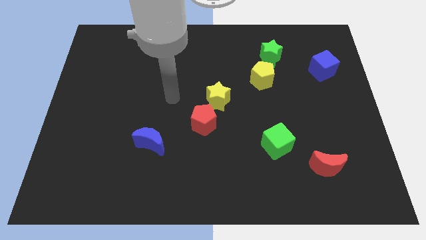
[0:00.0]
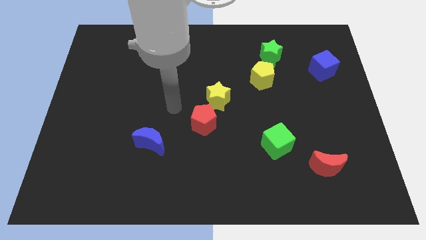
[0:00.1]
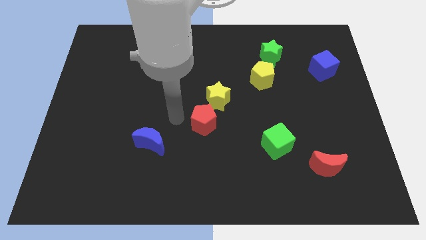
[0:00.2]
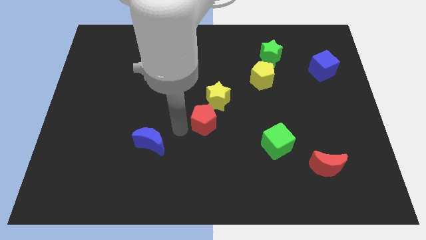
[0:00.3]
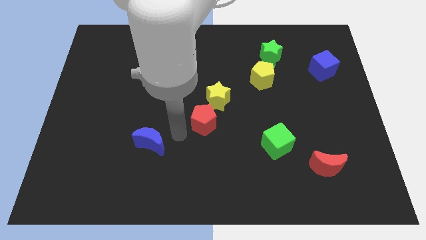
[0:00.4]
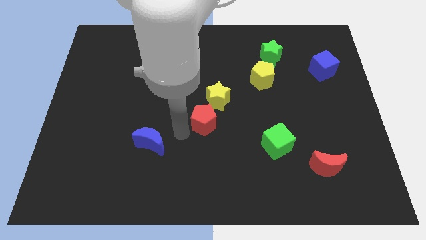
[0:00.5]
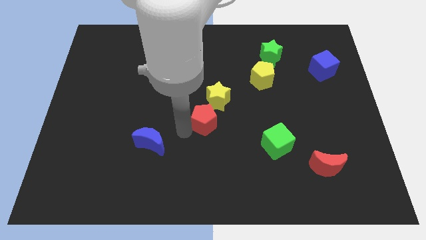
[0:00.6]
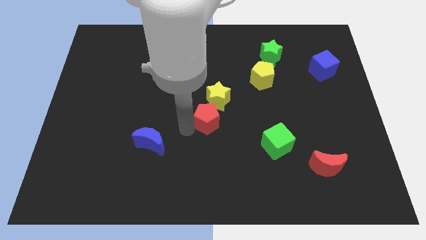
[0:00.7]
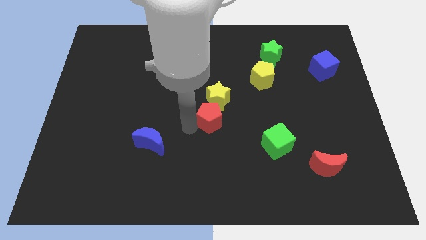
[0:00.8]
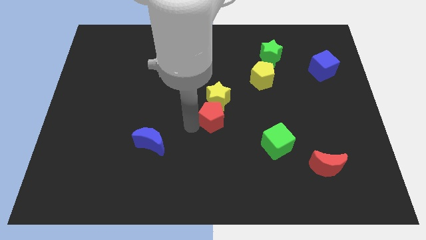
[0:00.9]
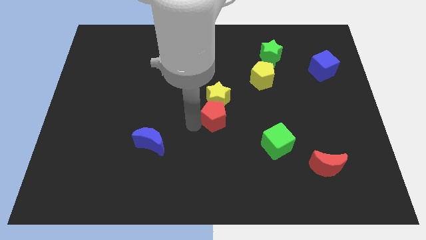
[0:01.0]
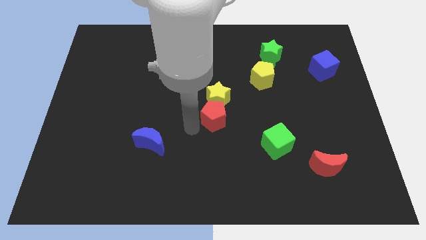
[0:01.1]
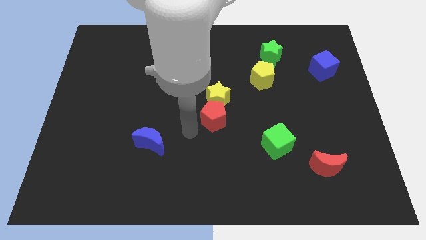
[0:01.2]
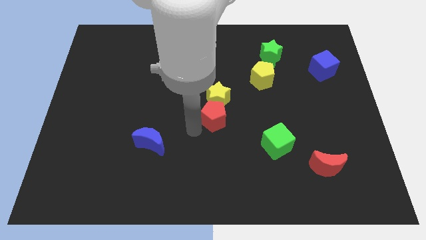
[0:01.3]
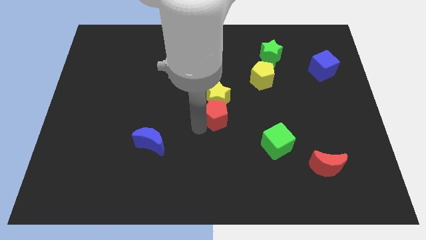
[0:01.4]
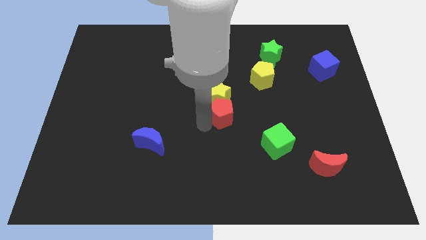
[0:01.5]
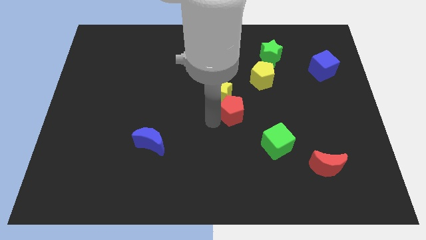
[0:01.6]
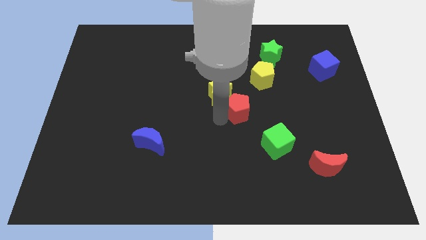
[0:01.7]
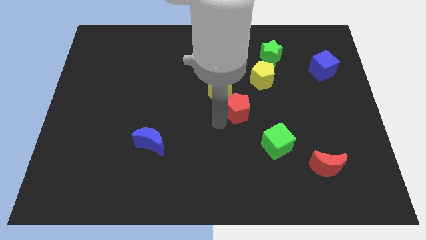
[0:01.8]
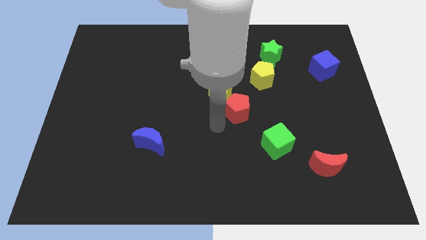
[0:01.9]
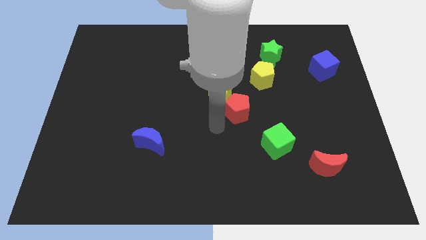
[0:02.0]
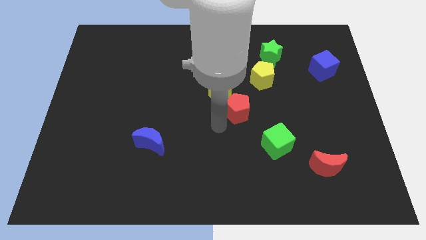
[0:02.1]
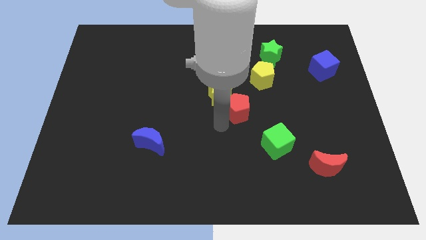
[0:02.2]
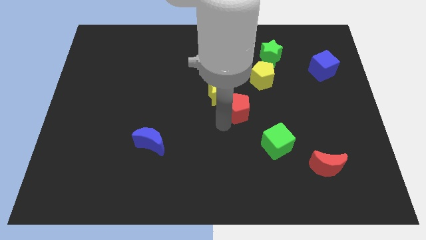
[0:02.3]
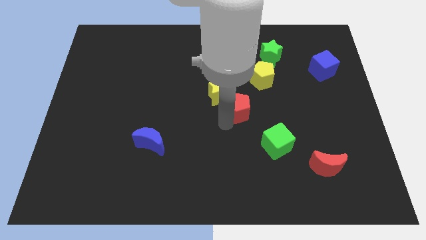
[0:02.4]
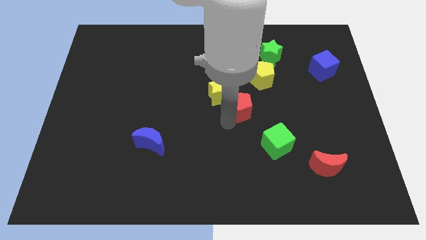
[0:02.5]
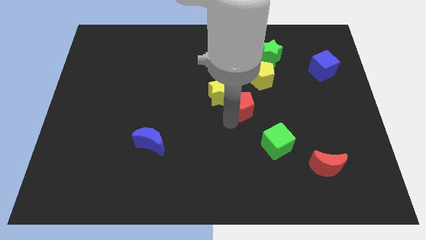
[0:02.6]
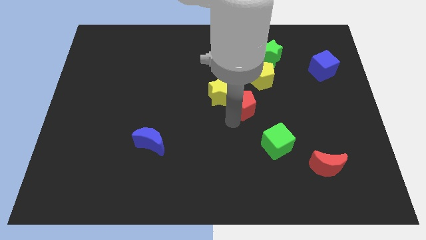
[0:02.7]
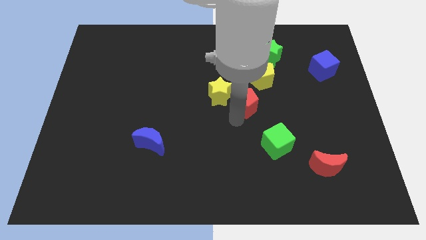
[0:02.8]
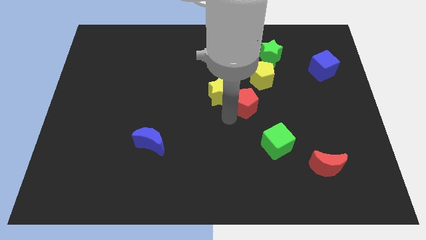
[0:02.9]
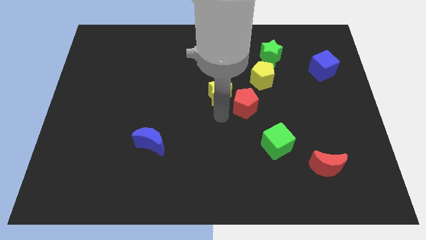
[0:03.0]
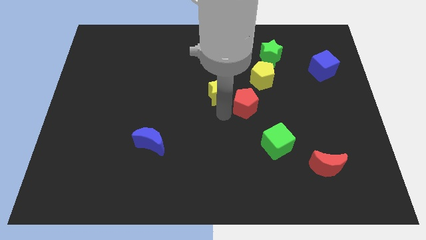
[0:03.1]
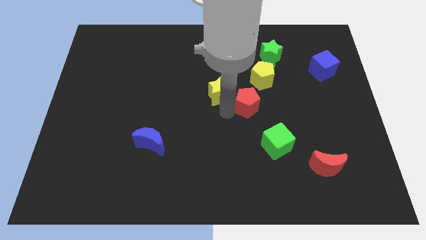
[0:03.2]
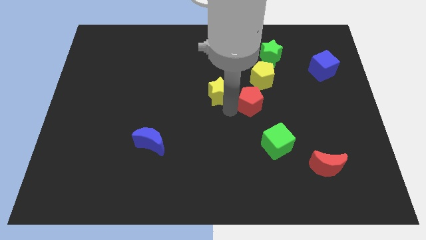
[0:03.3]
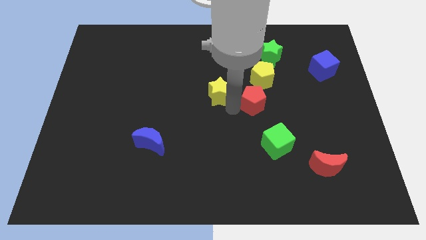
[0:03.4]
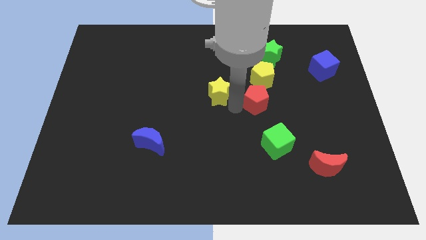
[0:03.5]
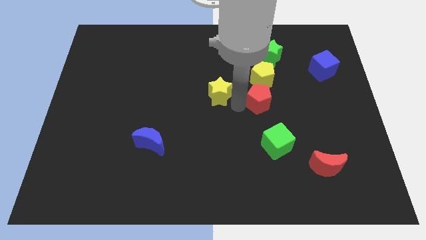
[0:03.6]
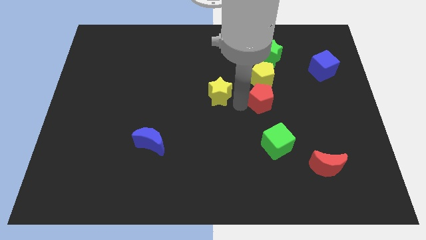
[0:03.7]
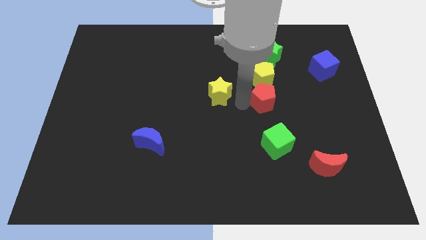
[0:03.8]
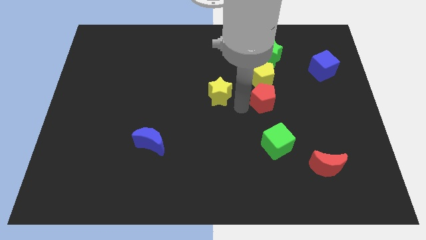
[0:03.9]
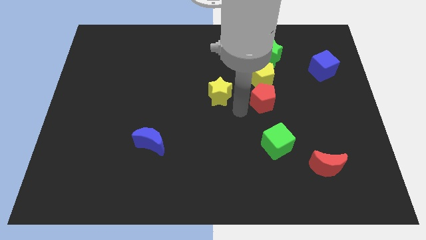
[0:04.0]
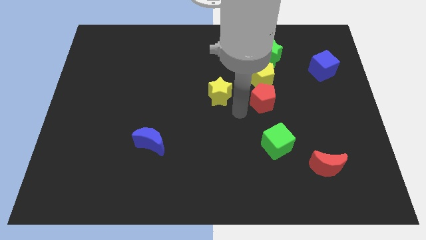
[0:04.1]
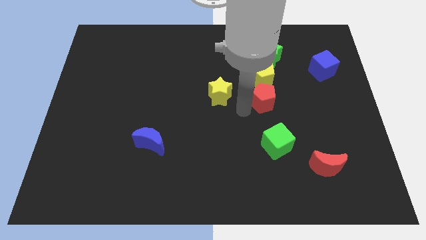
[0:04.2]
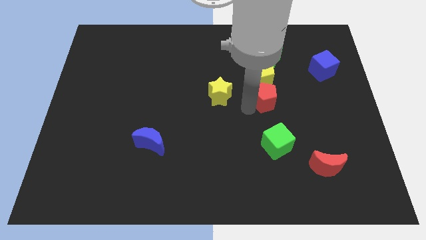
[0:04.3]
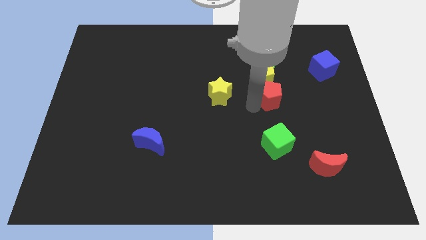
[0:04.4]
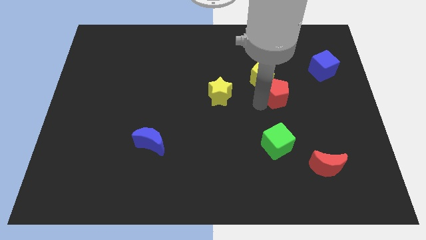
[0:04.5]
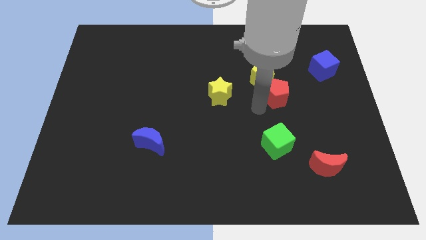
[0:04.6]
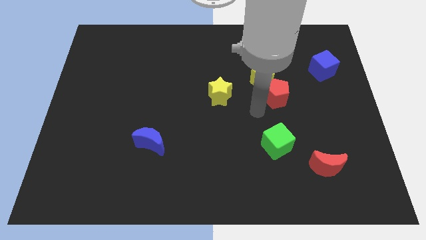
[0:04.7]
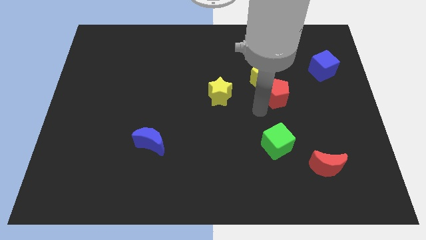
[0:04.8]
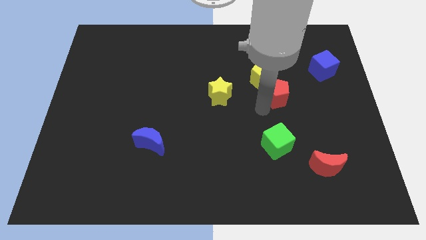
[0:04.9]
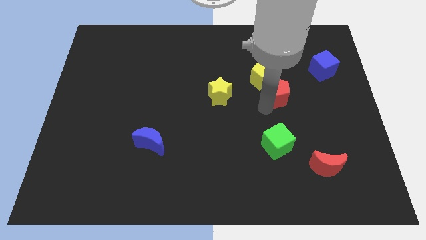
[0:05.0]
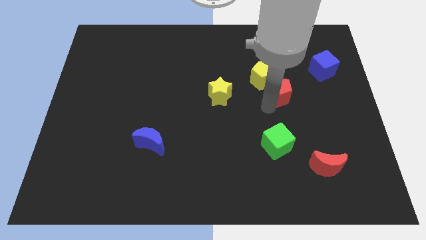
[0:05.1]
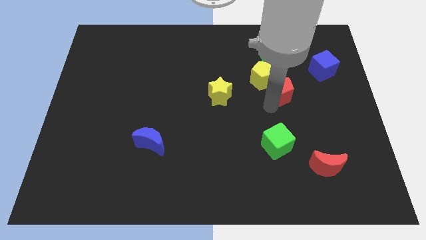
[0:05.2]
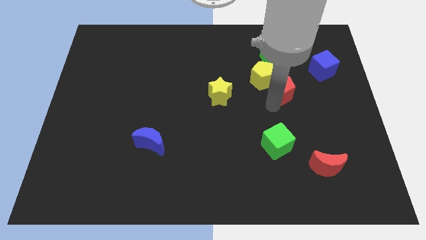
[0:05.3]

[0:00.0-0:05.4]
slide the red pentagon right of the yellow pentagon

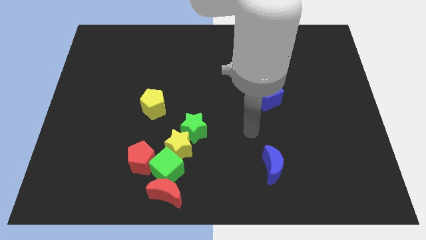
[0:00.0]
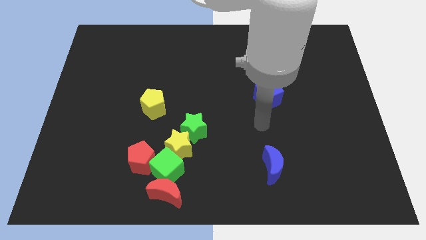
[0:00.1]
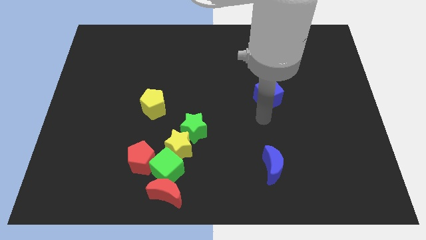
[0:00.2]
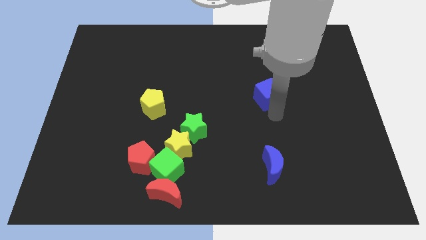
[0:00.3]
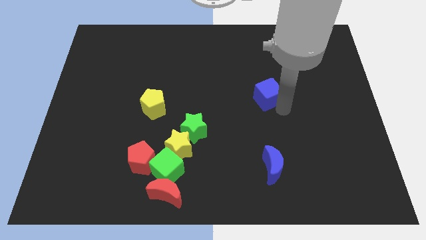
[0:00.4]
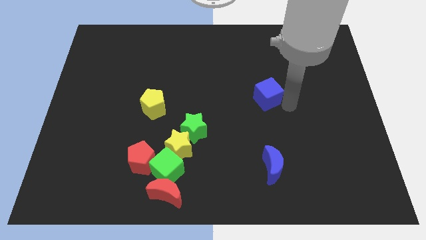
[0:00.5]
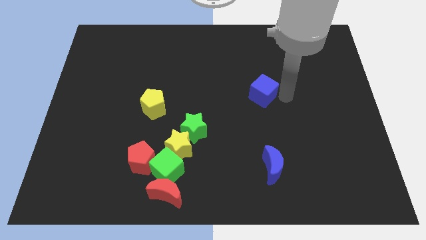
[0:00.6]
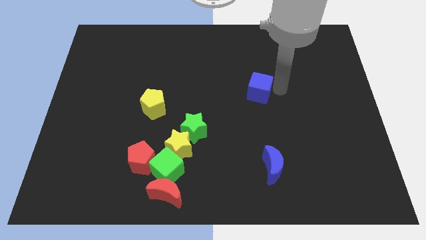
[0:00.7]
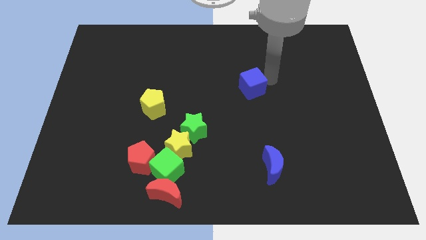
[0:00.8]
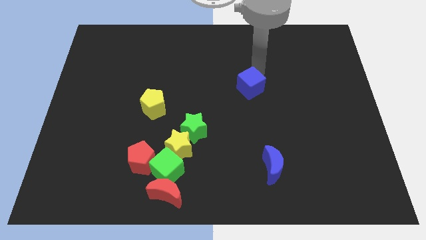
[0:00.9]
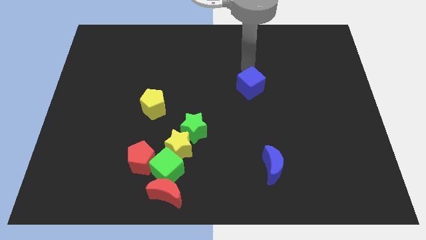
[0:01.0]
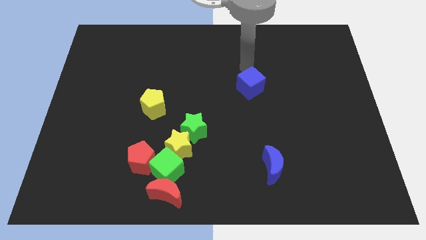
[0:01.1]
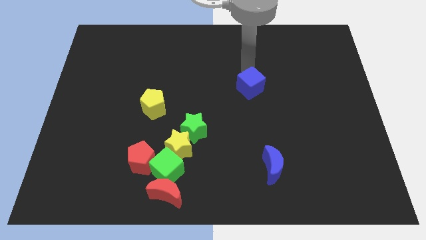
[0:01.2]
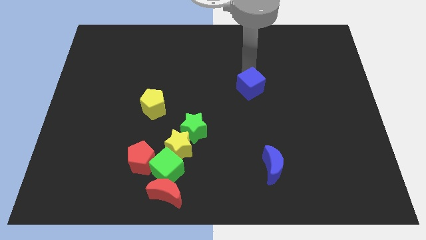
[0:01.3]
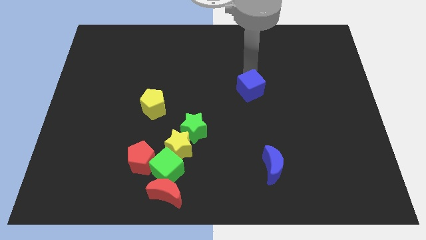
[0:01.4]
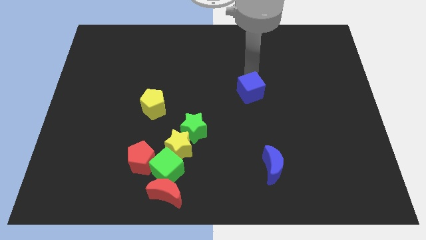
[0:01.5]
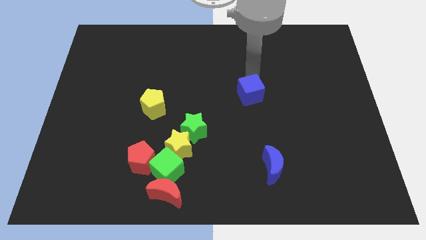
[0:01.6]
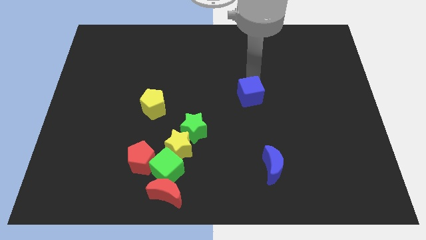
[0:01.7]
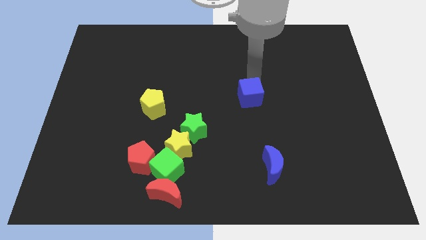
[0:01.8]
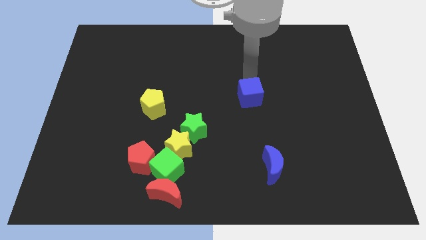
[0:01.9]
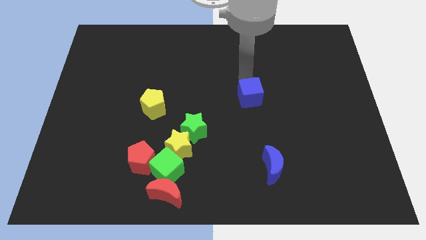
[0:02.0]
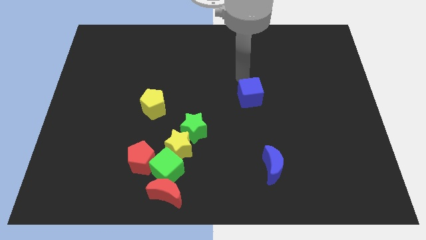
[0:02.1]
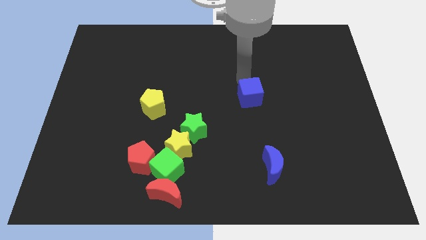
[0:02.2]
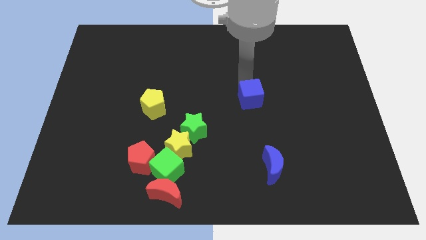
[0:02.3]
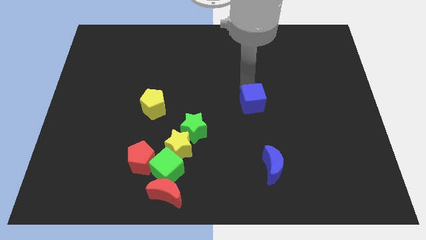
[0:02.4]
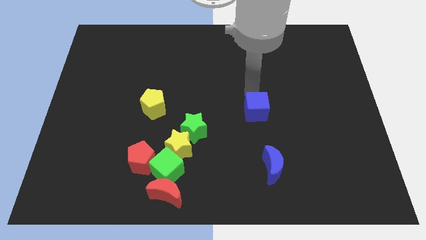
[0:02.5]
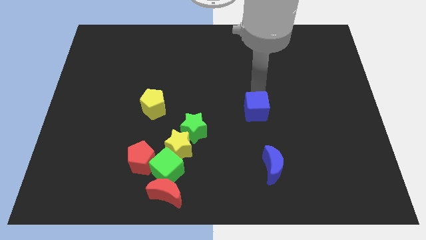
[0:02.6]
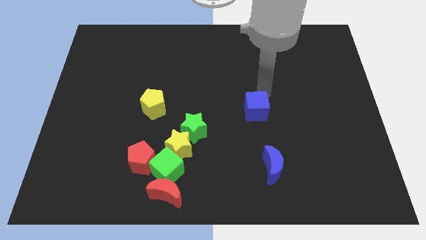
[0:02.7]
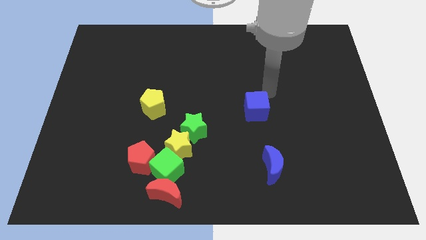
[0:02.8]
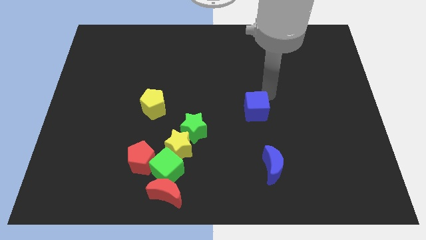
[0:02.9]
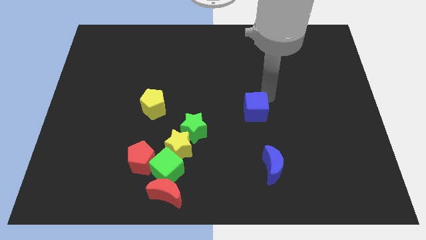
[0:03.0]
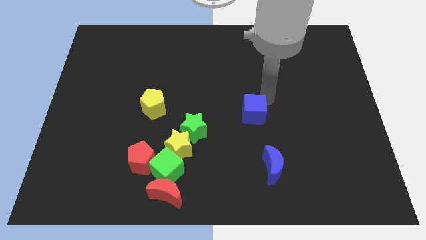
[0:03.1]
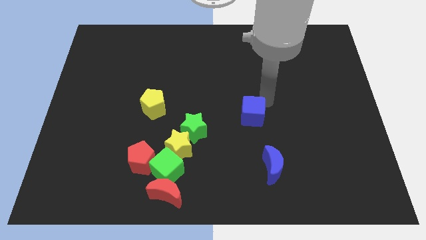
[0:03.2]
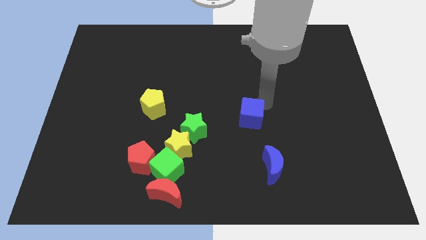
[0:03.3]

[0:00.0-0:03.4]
slide the blue cube to the right of the green star
